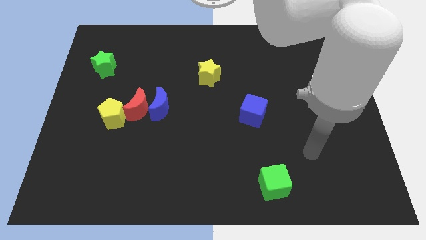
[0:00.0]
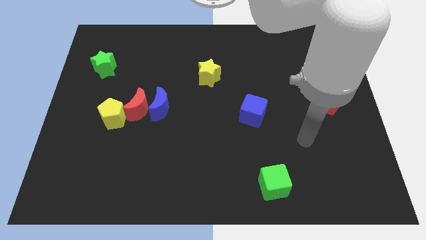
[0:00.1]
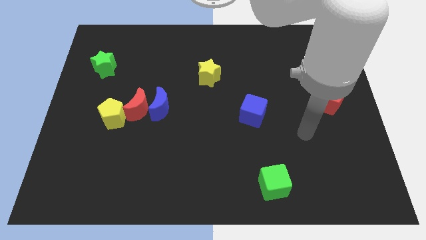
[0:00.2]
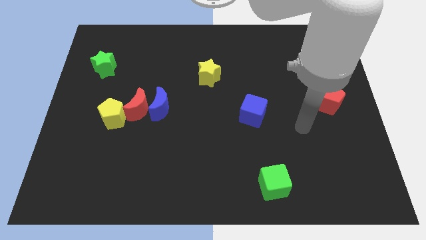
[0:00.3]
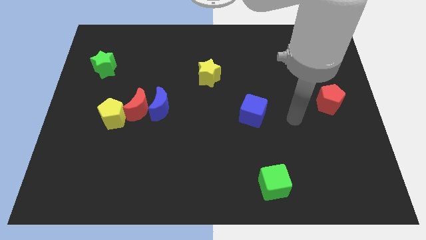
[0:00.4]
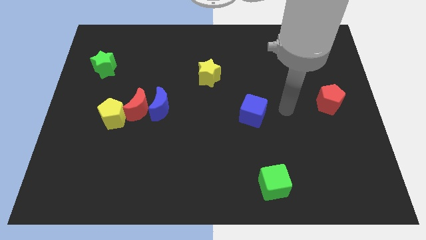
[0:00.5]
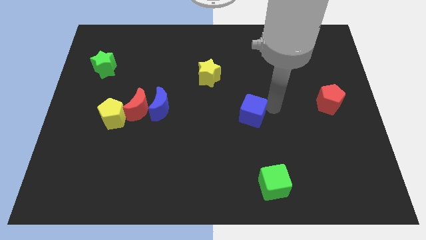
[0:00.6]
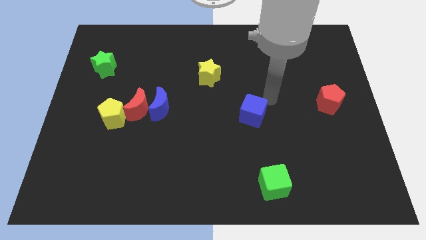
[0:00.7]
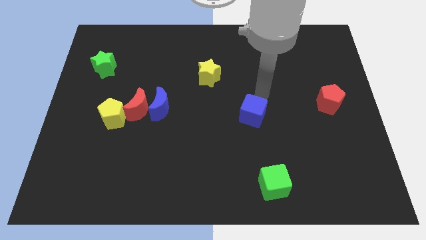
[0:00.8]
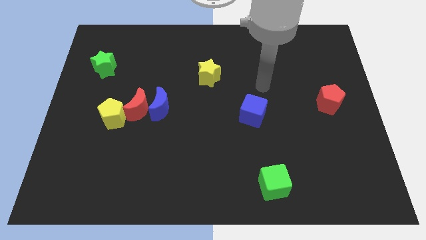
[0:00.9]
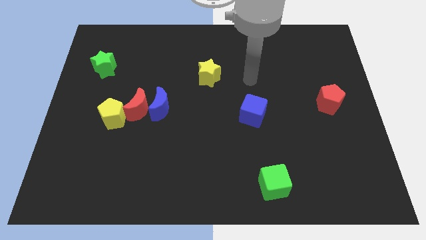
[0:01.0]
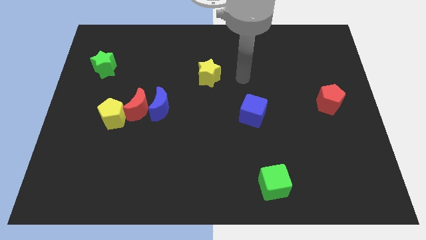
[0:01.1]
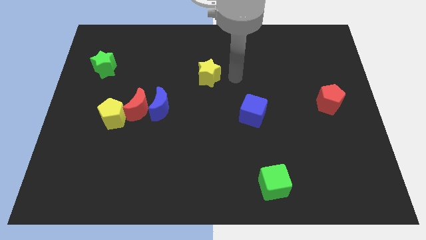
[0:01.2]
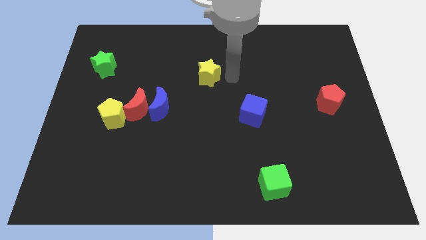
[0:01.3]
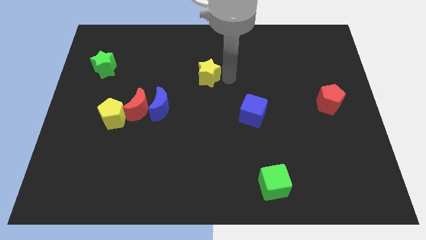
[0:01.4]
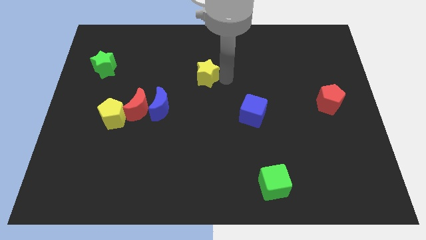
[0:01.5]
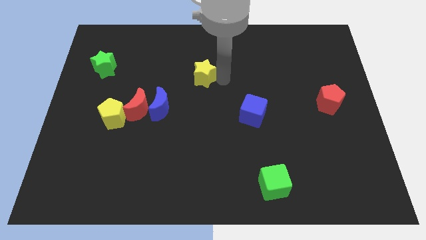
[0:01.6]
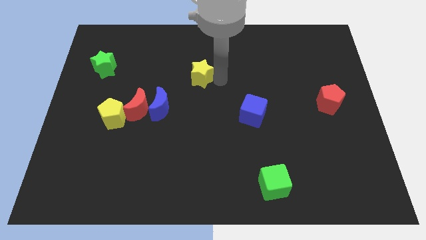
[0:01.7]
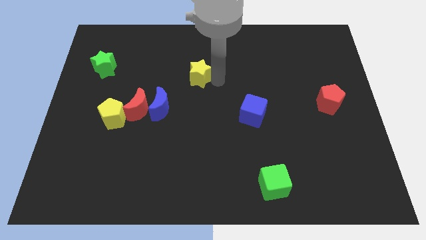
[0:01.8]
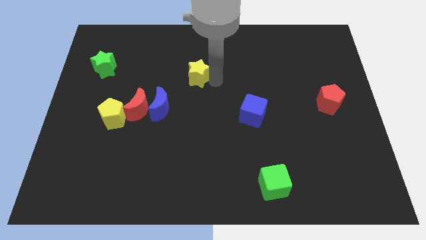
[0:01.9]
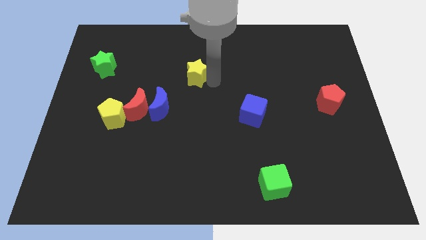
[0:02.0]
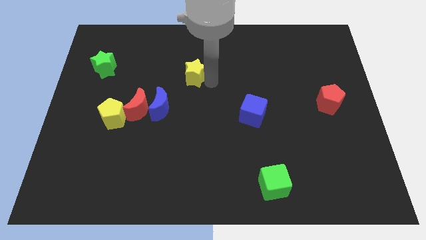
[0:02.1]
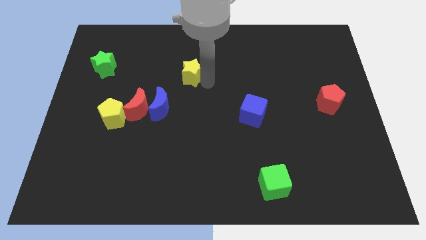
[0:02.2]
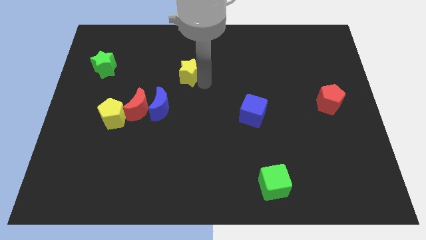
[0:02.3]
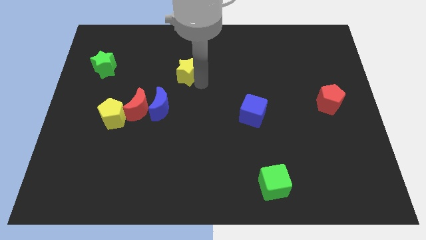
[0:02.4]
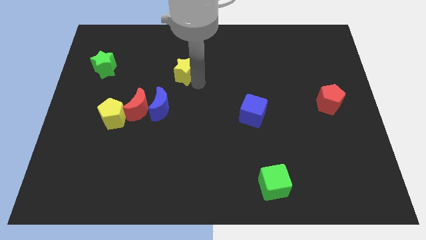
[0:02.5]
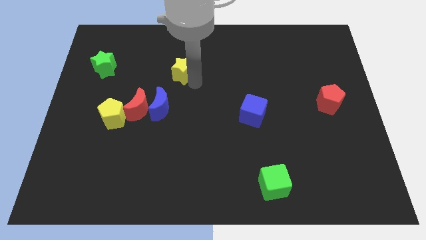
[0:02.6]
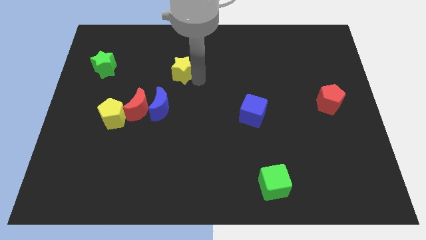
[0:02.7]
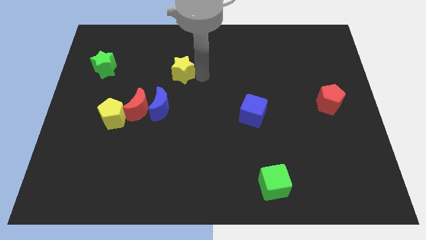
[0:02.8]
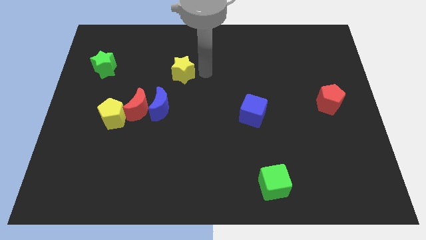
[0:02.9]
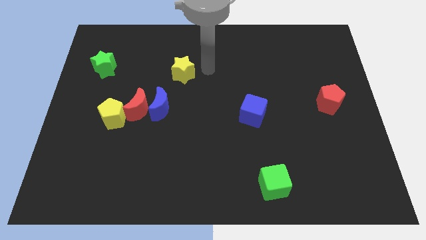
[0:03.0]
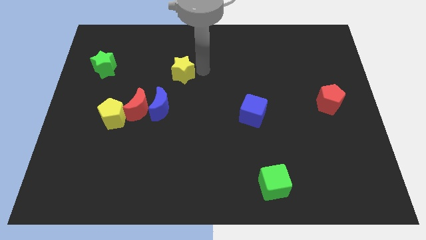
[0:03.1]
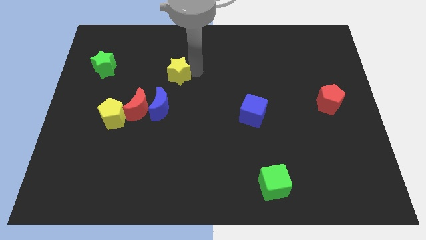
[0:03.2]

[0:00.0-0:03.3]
slide the yellow star somewhat left

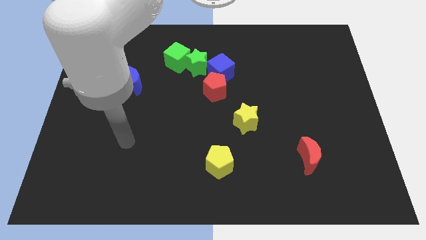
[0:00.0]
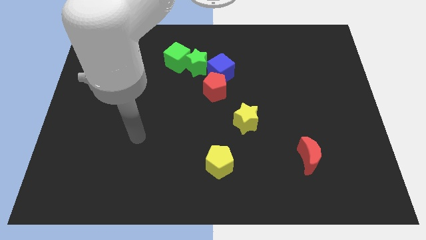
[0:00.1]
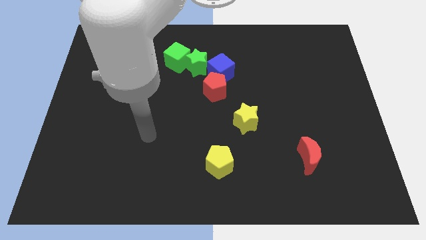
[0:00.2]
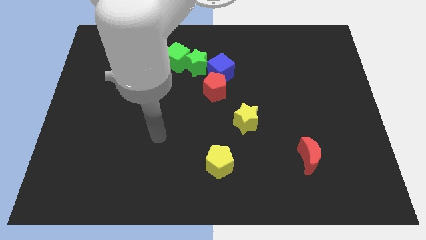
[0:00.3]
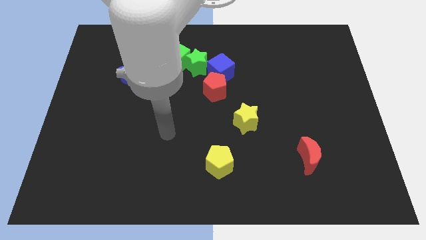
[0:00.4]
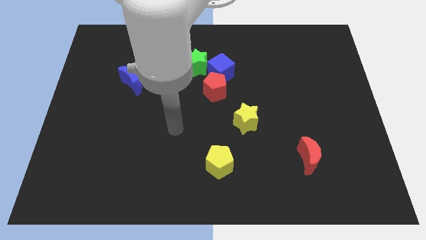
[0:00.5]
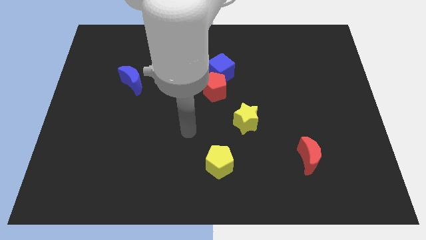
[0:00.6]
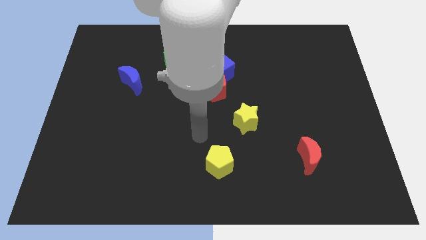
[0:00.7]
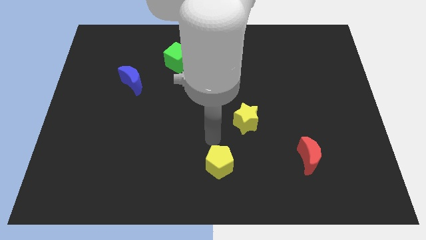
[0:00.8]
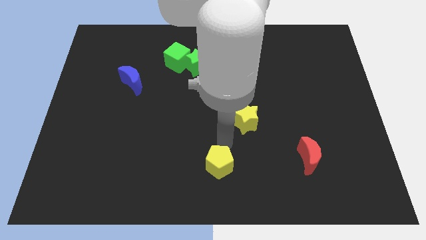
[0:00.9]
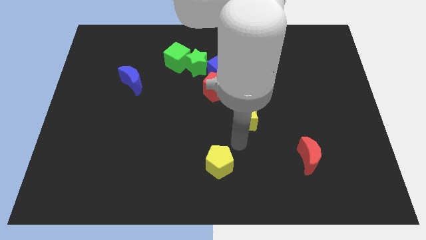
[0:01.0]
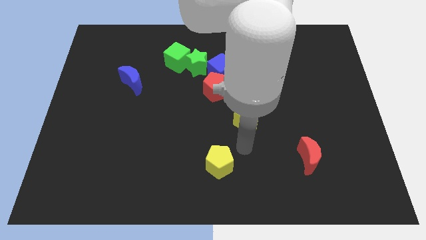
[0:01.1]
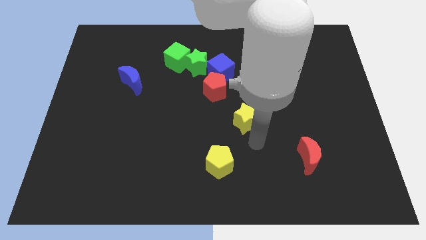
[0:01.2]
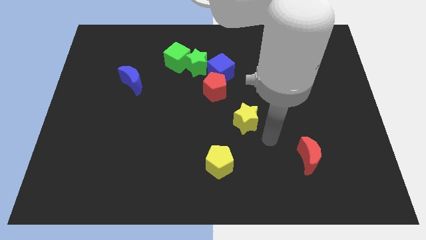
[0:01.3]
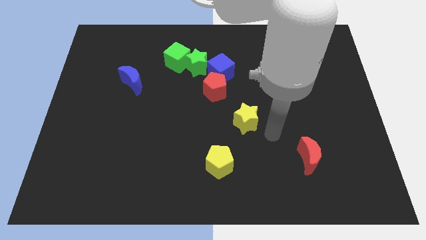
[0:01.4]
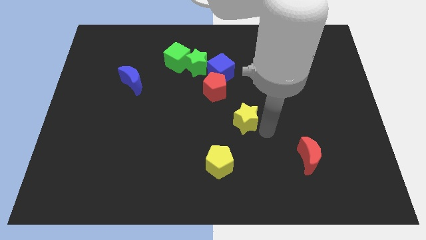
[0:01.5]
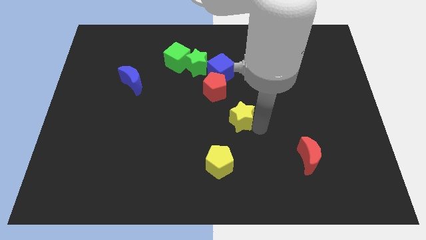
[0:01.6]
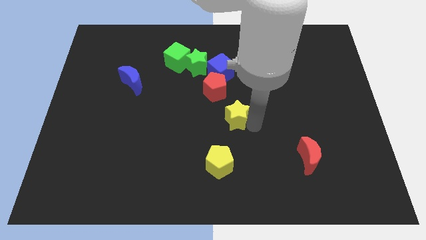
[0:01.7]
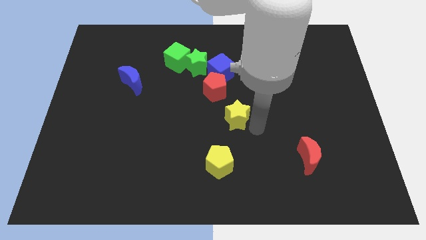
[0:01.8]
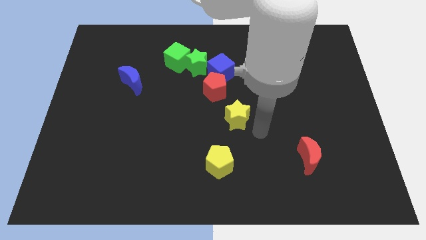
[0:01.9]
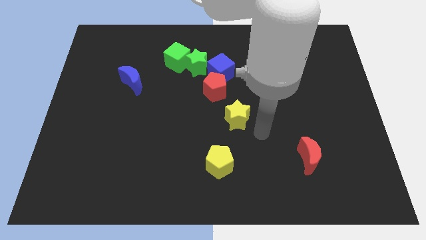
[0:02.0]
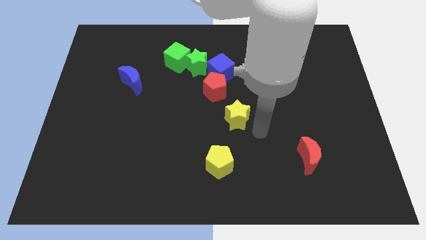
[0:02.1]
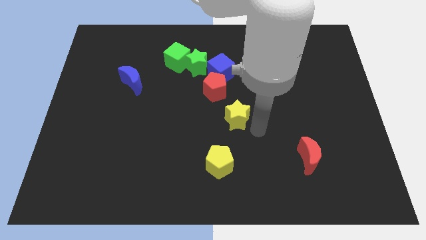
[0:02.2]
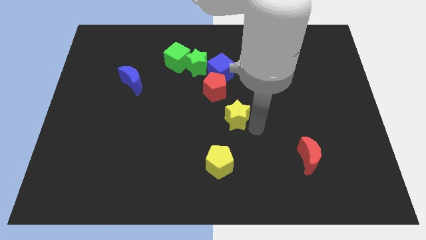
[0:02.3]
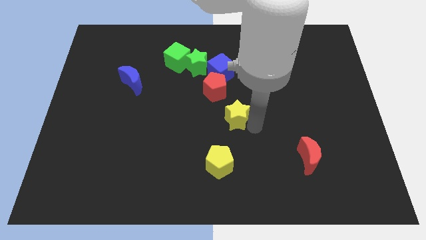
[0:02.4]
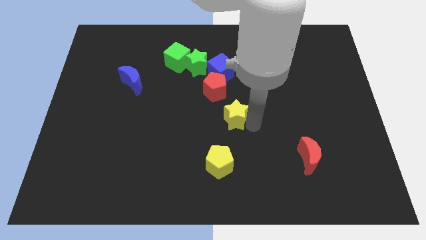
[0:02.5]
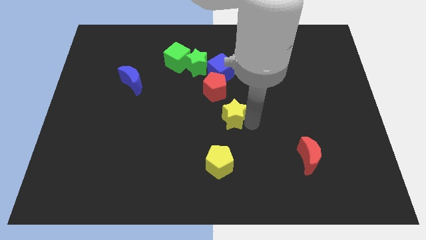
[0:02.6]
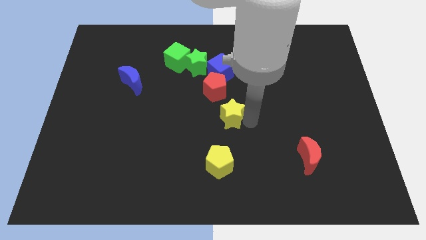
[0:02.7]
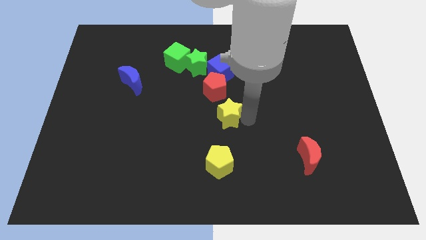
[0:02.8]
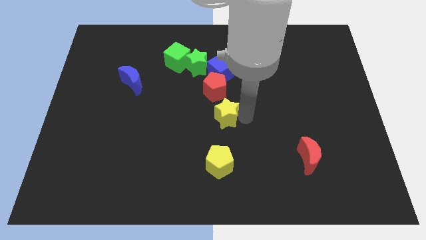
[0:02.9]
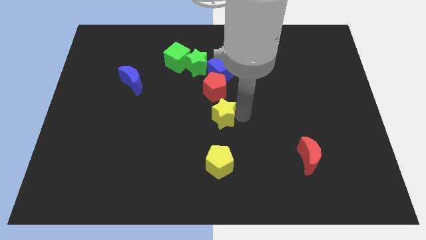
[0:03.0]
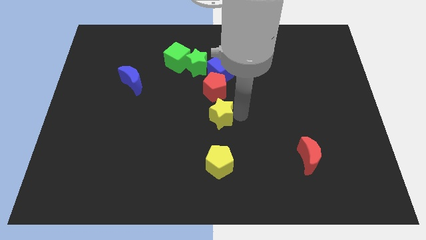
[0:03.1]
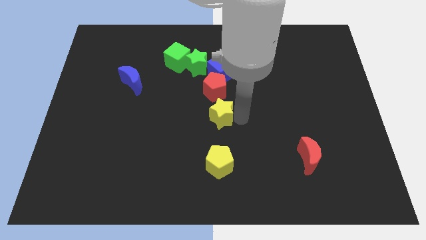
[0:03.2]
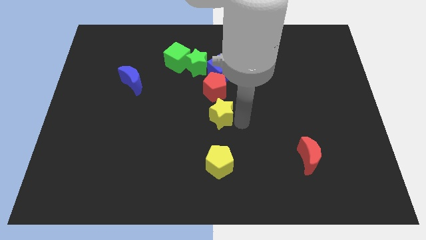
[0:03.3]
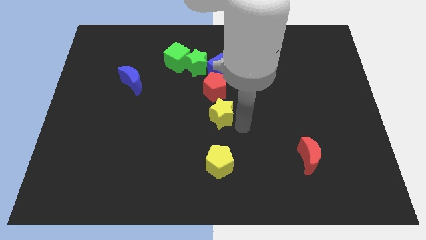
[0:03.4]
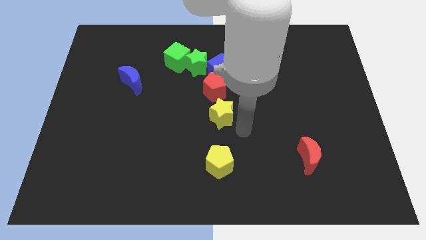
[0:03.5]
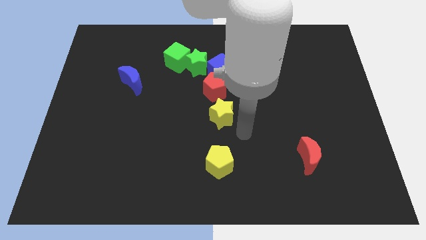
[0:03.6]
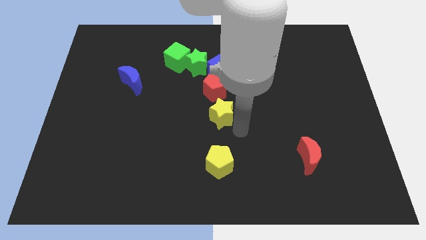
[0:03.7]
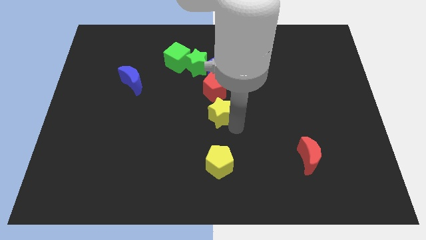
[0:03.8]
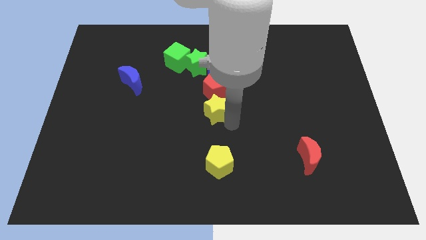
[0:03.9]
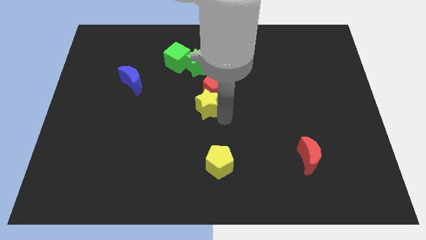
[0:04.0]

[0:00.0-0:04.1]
slightly slide the yellow star upwards and then left

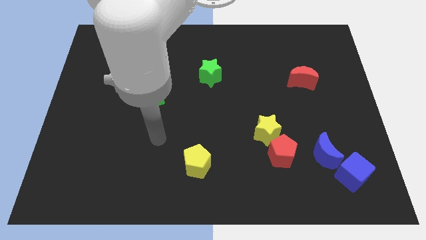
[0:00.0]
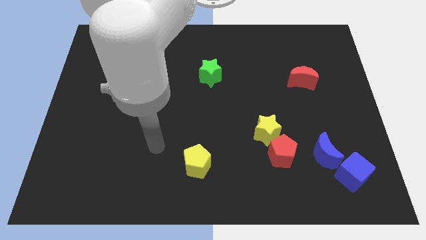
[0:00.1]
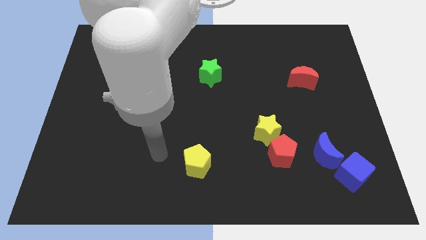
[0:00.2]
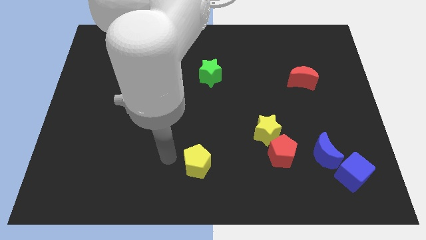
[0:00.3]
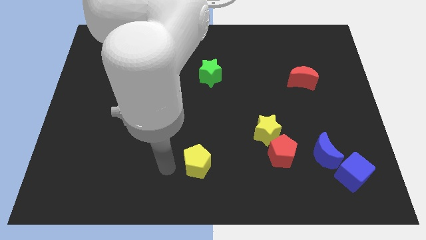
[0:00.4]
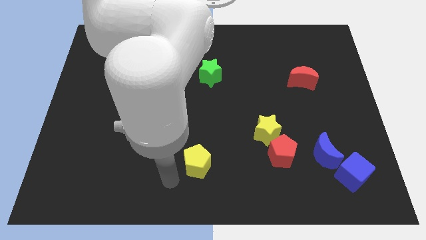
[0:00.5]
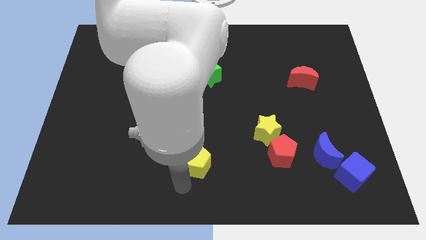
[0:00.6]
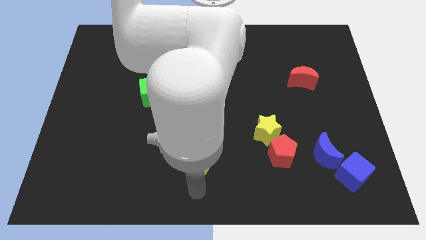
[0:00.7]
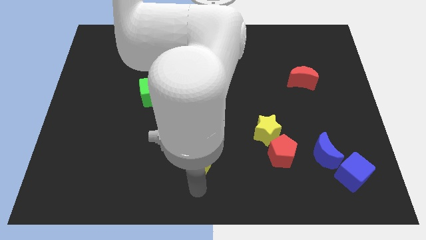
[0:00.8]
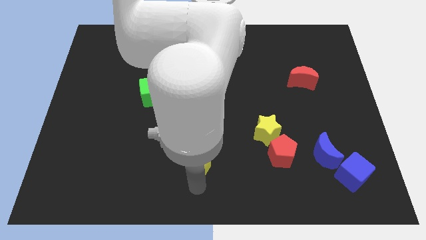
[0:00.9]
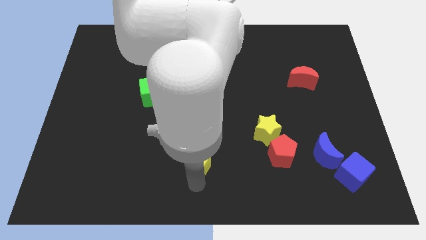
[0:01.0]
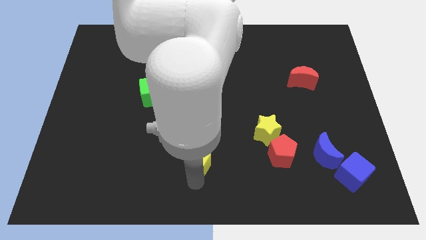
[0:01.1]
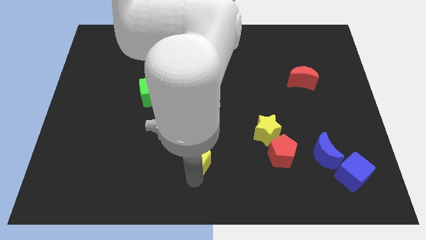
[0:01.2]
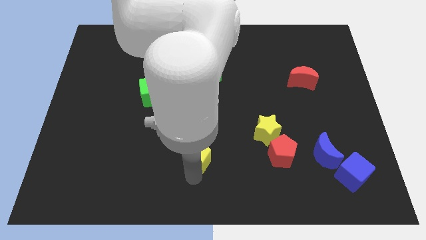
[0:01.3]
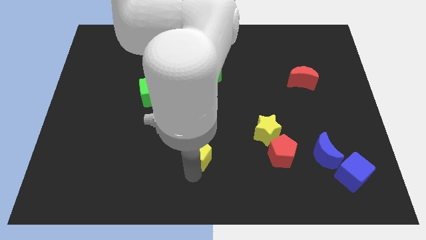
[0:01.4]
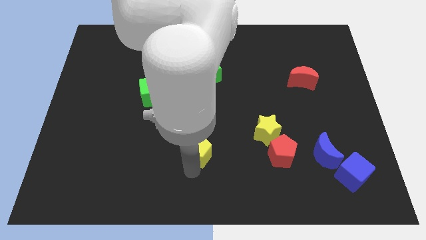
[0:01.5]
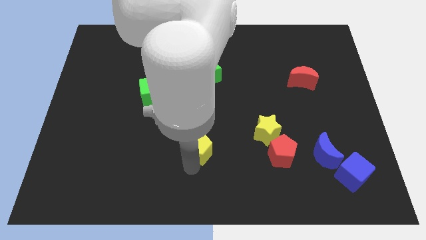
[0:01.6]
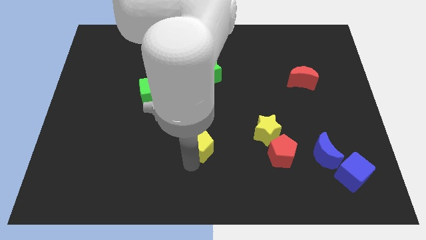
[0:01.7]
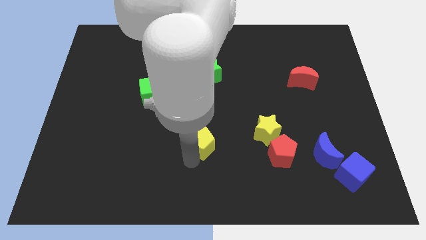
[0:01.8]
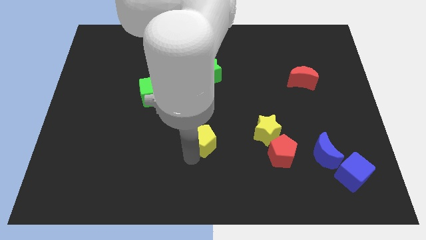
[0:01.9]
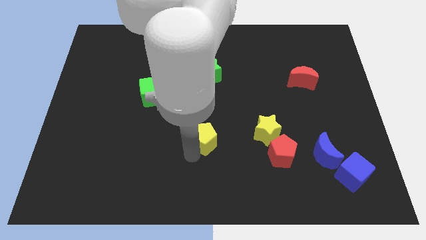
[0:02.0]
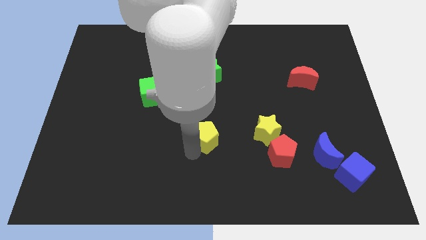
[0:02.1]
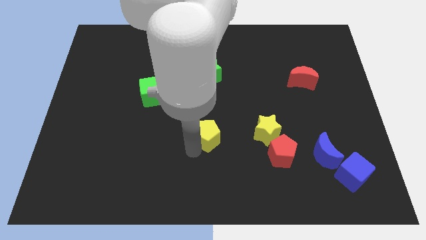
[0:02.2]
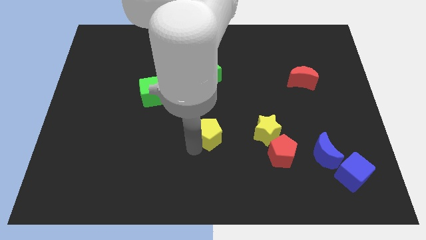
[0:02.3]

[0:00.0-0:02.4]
move the yellow pentagon upwards slightly
